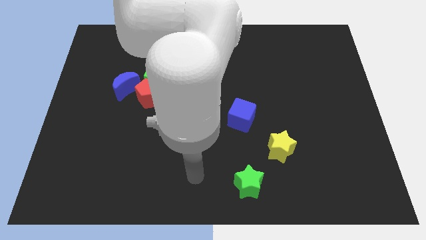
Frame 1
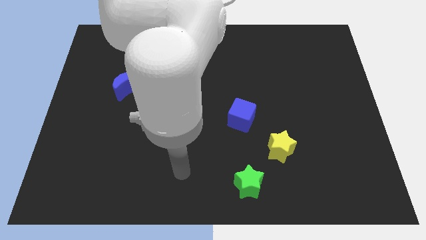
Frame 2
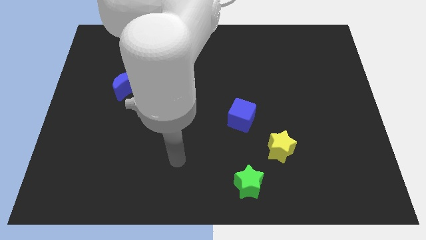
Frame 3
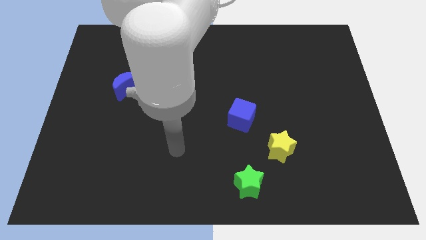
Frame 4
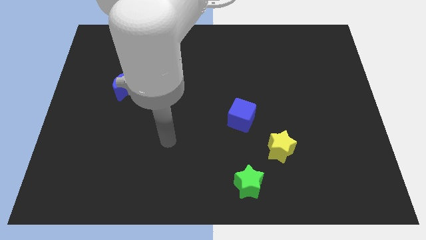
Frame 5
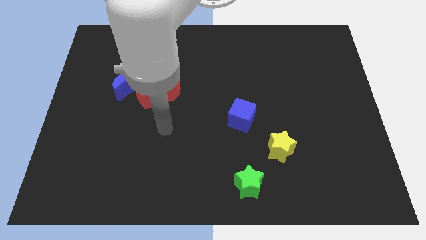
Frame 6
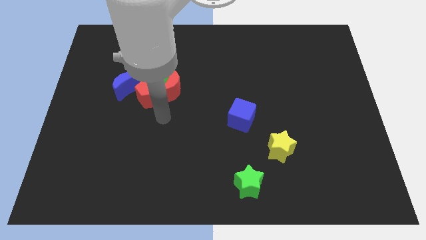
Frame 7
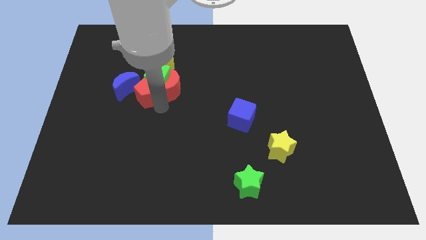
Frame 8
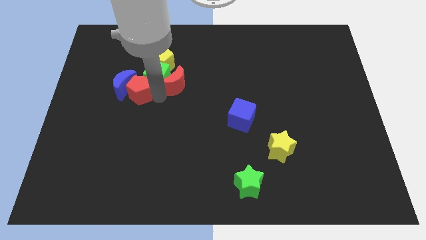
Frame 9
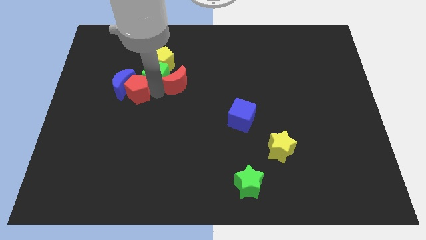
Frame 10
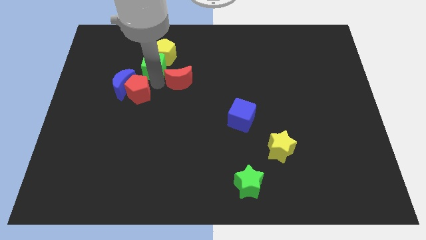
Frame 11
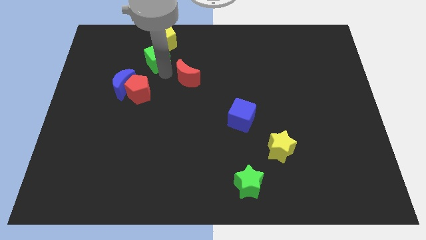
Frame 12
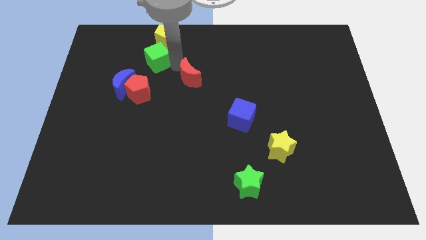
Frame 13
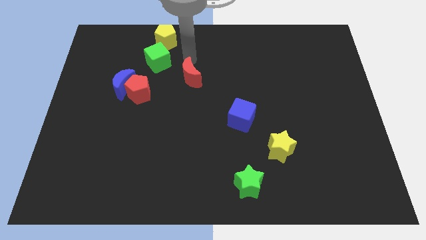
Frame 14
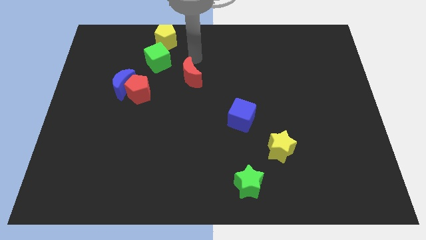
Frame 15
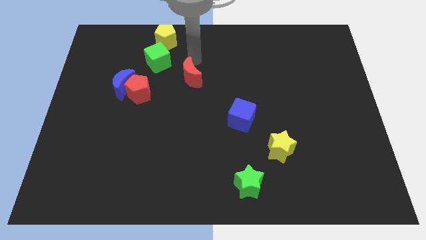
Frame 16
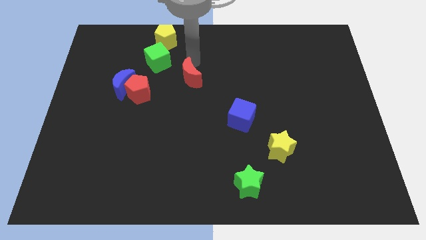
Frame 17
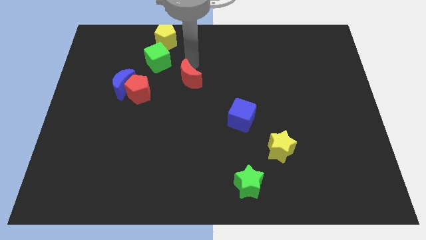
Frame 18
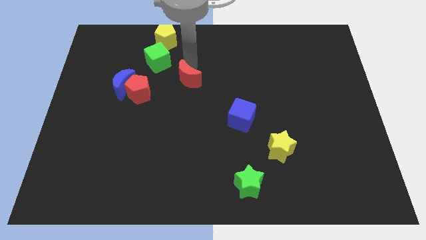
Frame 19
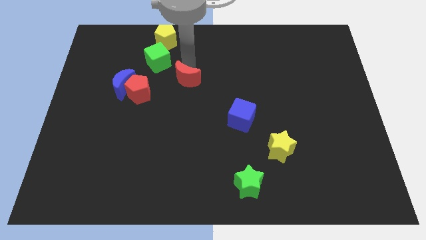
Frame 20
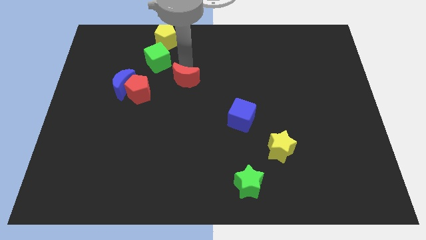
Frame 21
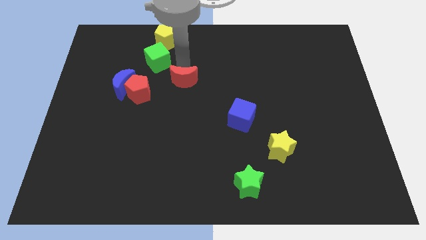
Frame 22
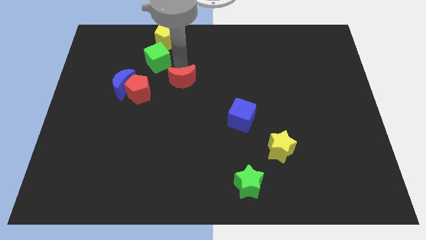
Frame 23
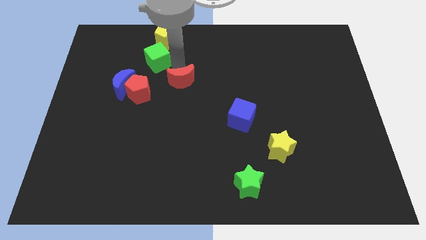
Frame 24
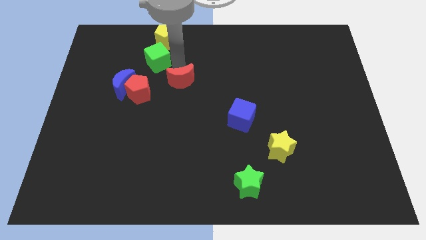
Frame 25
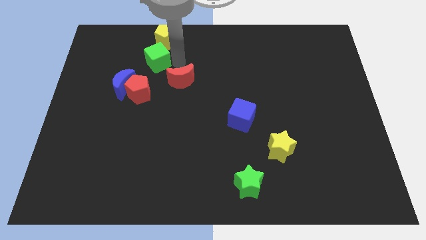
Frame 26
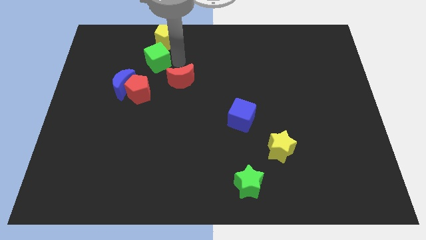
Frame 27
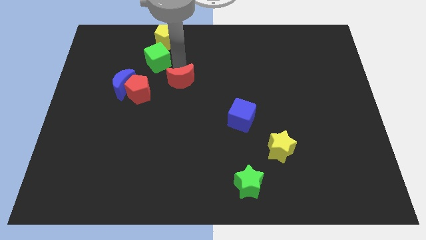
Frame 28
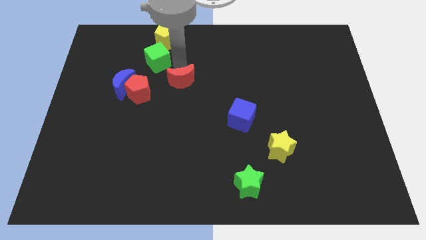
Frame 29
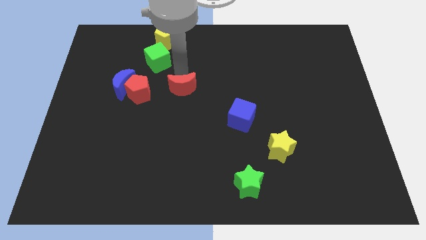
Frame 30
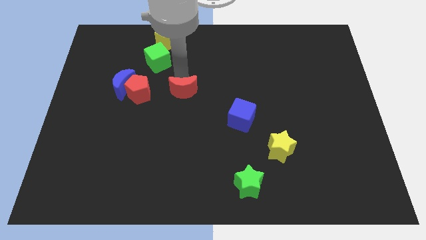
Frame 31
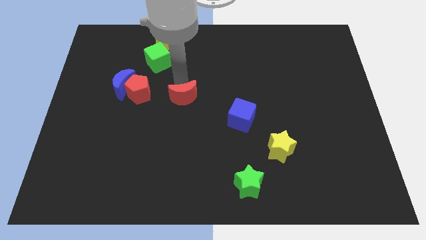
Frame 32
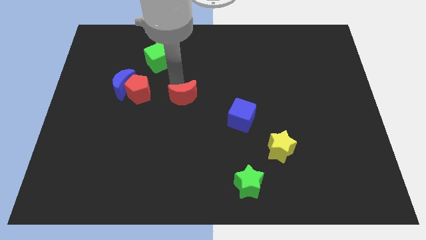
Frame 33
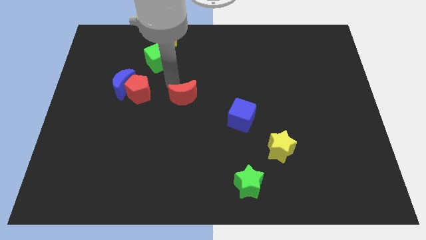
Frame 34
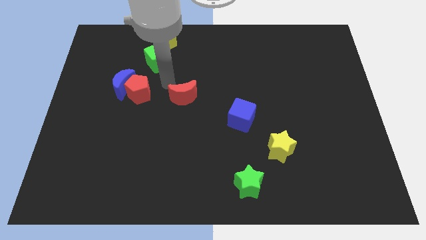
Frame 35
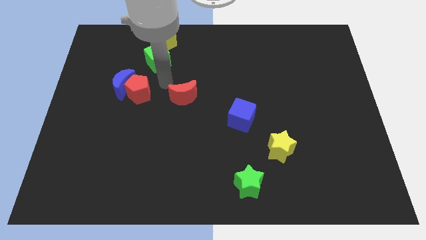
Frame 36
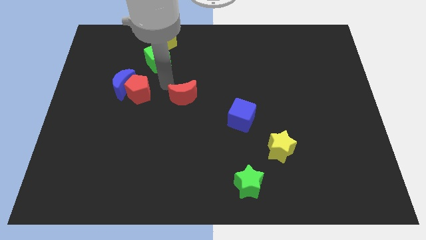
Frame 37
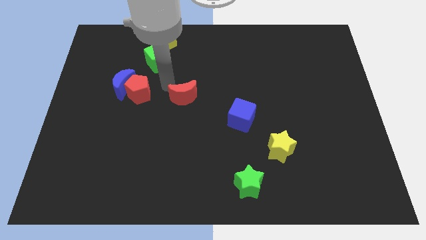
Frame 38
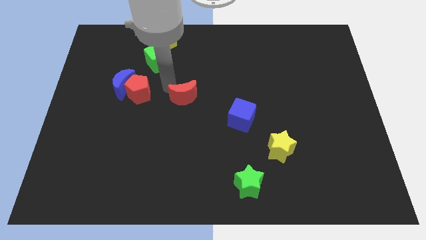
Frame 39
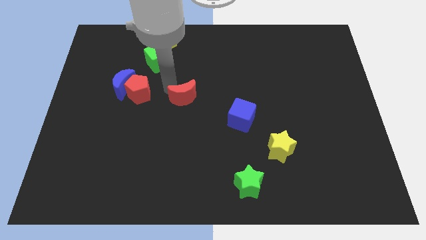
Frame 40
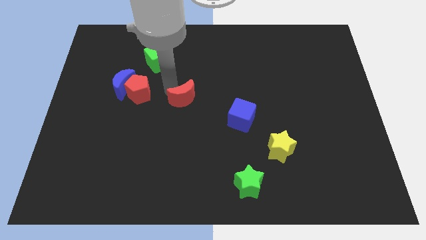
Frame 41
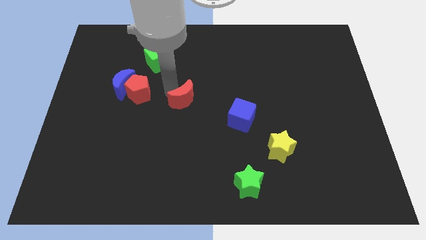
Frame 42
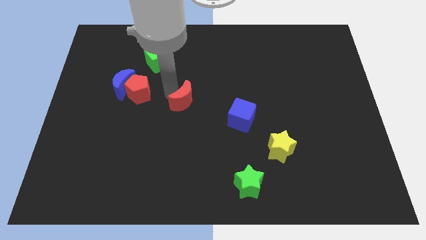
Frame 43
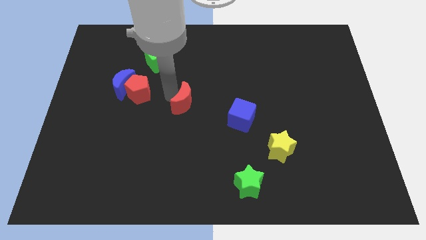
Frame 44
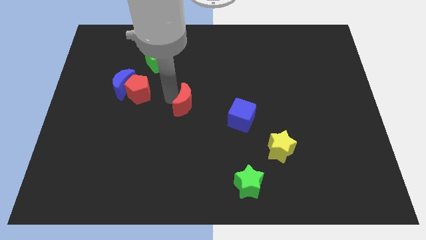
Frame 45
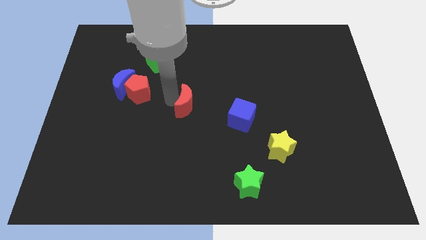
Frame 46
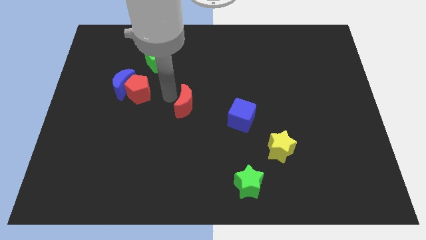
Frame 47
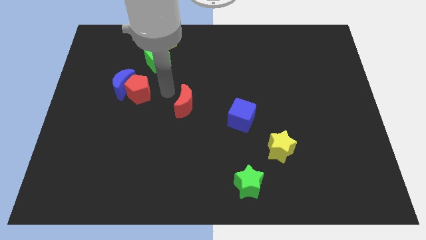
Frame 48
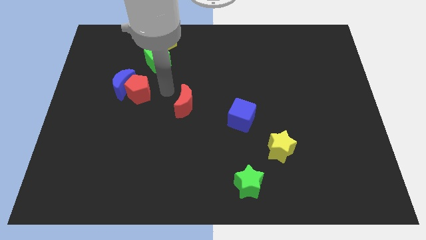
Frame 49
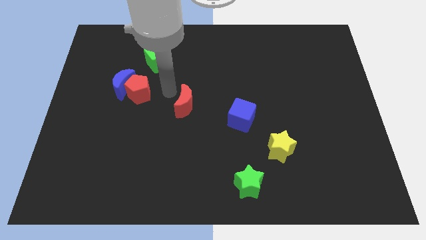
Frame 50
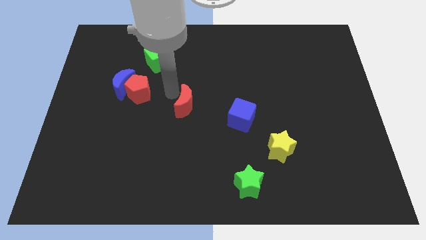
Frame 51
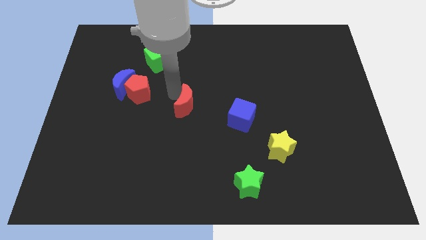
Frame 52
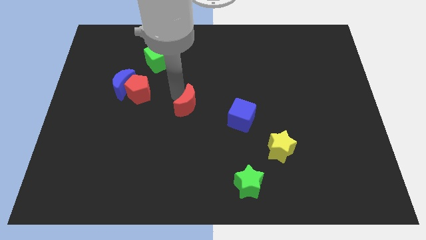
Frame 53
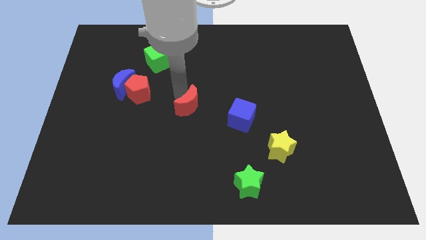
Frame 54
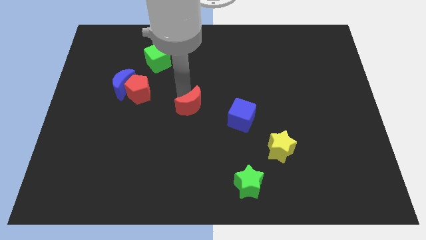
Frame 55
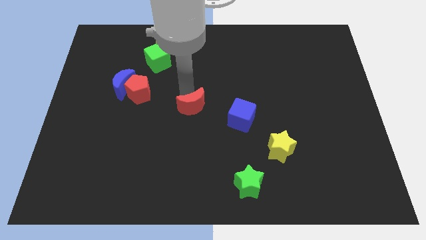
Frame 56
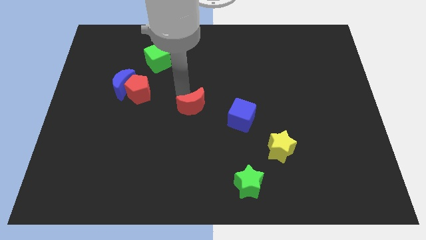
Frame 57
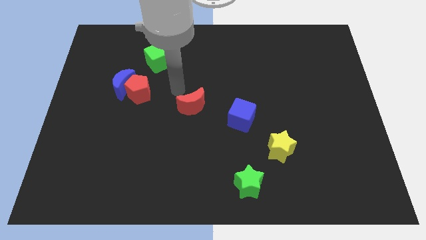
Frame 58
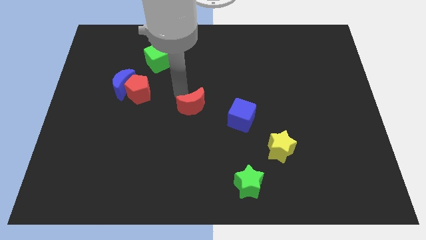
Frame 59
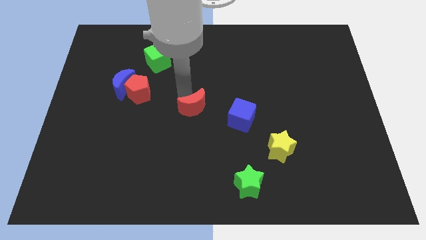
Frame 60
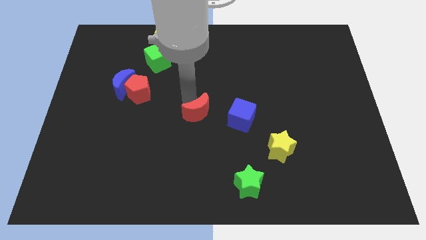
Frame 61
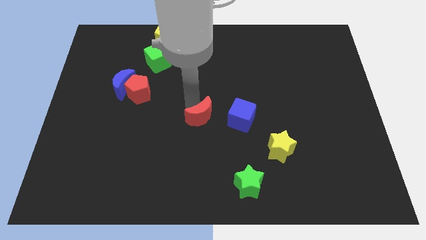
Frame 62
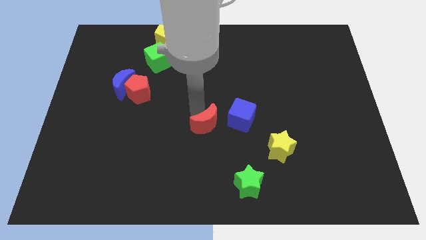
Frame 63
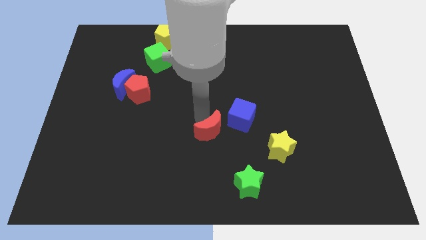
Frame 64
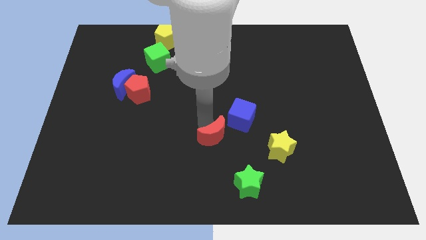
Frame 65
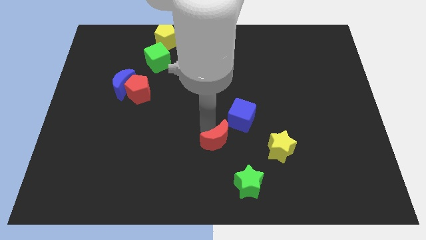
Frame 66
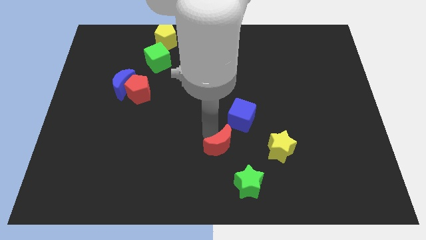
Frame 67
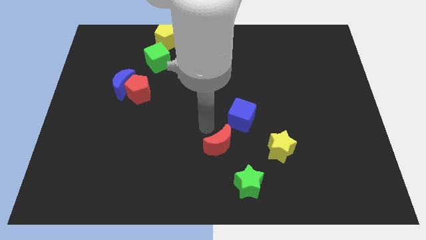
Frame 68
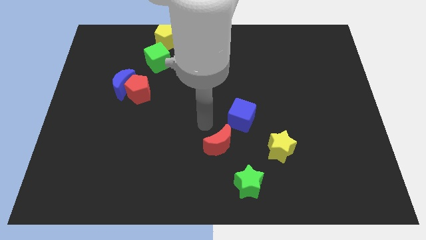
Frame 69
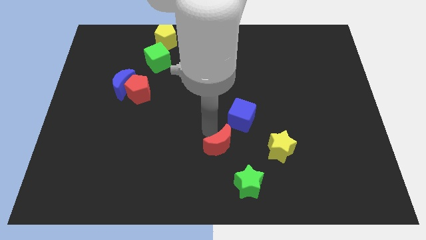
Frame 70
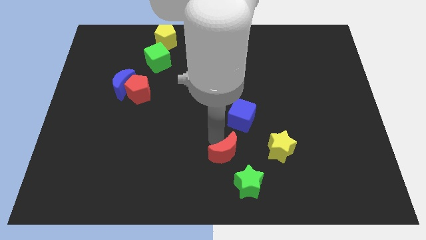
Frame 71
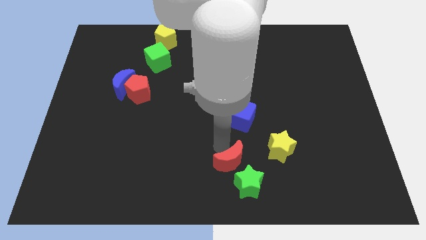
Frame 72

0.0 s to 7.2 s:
push the red moon next to the green star

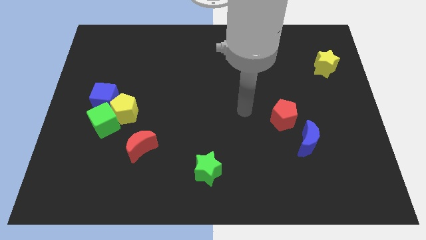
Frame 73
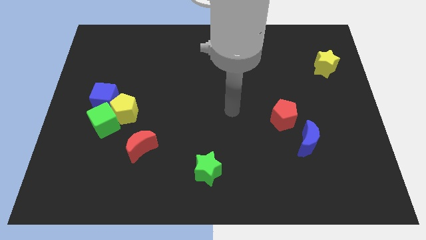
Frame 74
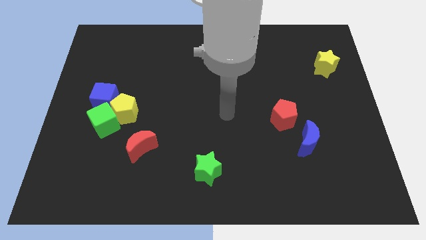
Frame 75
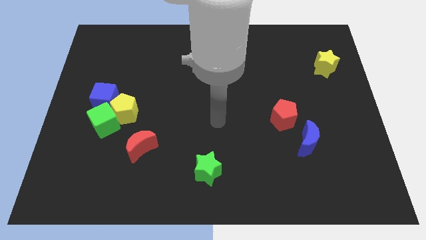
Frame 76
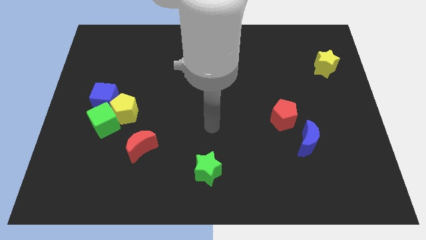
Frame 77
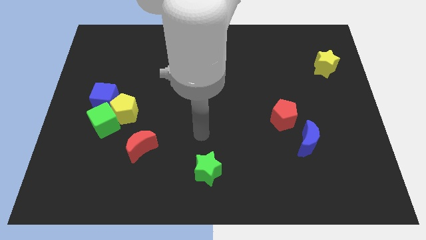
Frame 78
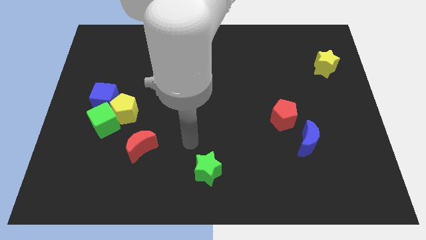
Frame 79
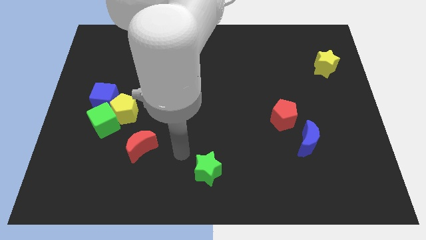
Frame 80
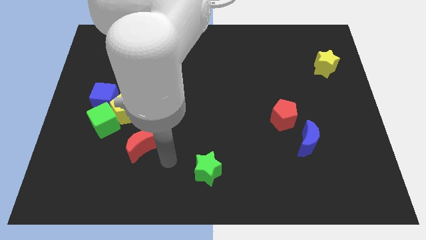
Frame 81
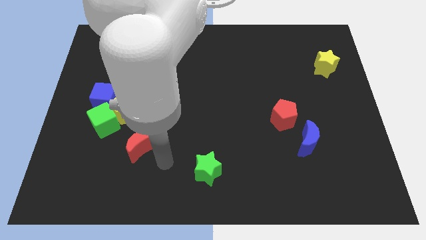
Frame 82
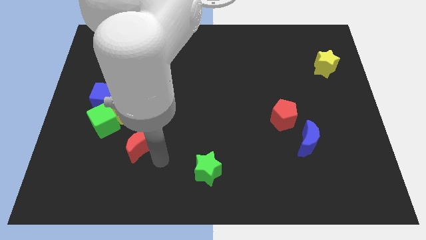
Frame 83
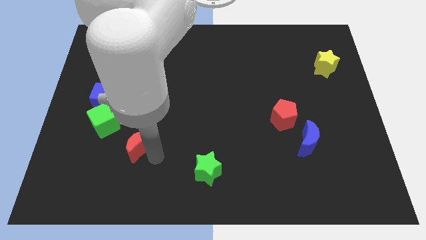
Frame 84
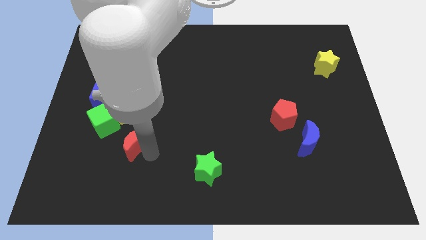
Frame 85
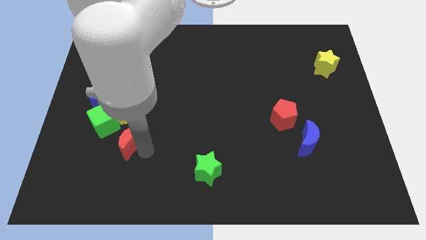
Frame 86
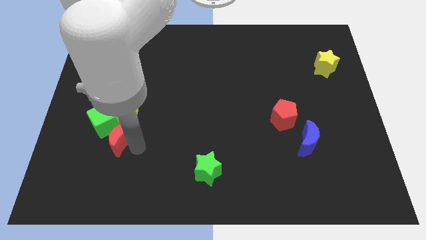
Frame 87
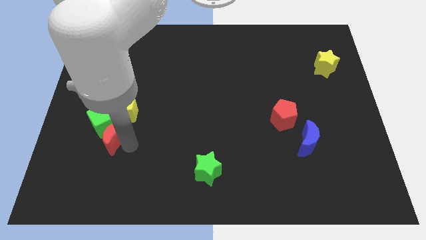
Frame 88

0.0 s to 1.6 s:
move the red moon to the green cube
